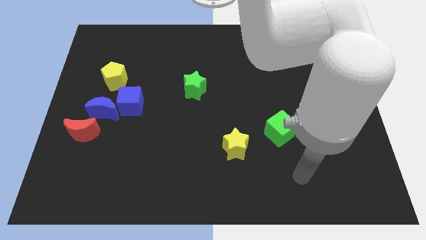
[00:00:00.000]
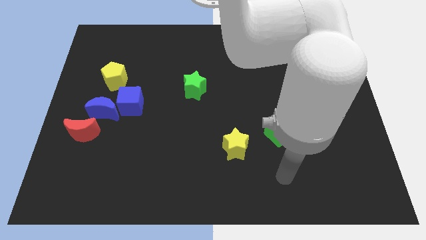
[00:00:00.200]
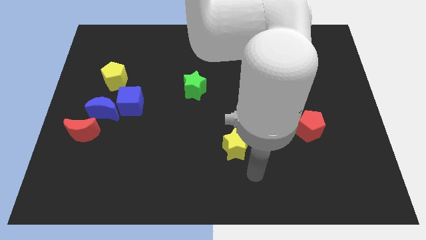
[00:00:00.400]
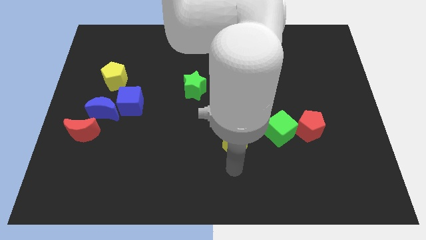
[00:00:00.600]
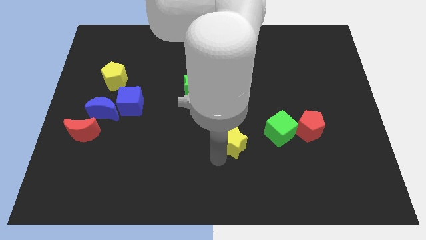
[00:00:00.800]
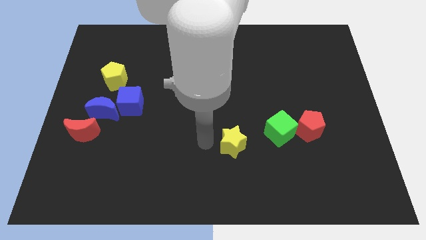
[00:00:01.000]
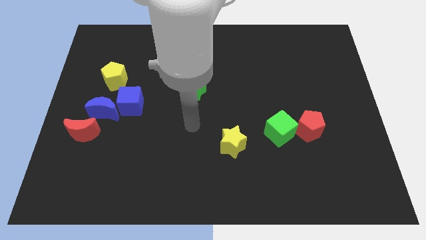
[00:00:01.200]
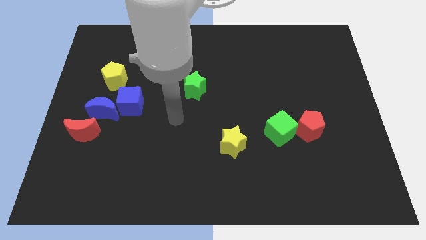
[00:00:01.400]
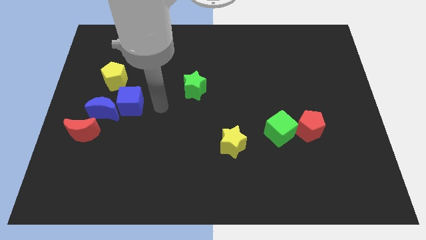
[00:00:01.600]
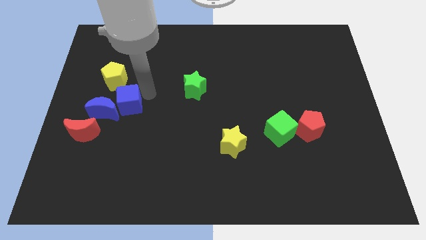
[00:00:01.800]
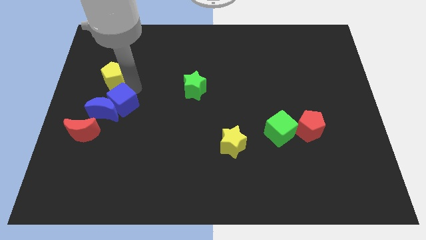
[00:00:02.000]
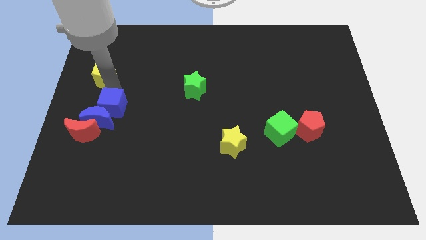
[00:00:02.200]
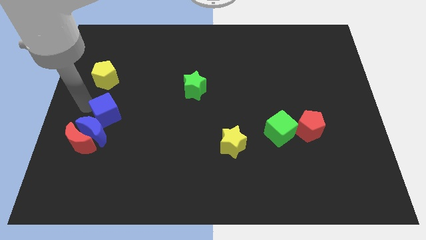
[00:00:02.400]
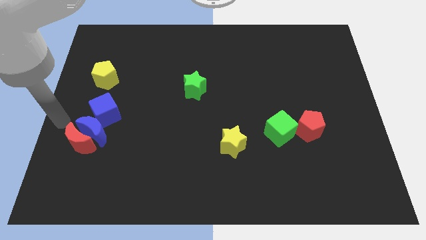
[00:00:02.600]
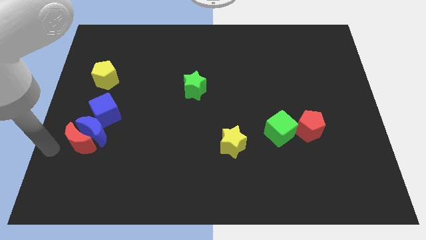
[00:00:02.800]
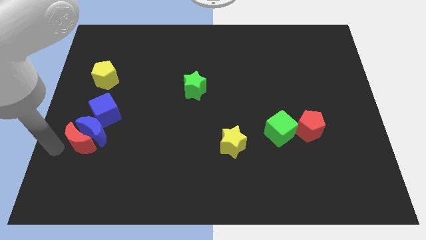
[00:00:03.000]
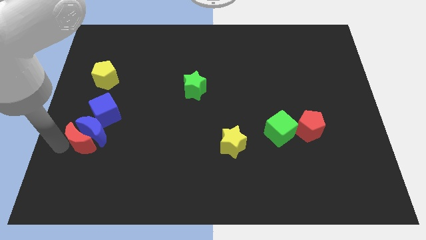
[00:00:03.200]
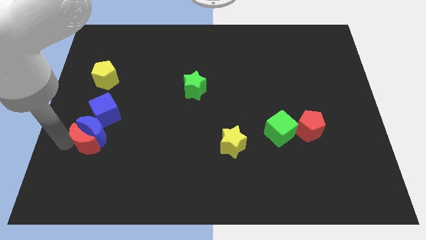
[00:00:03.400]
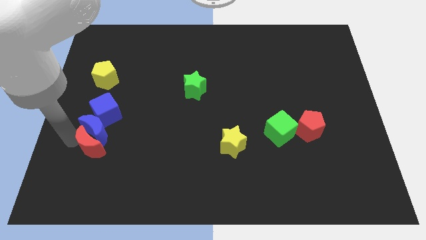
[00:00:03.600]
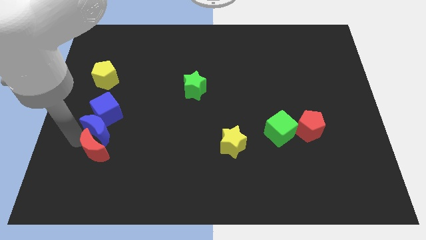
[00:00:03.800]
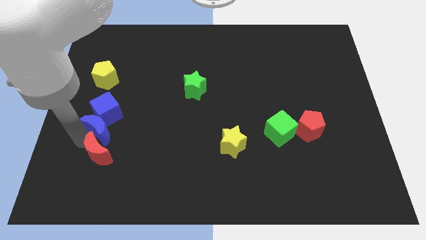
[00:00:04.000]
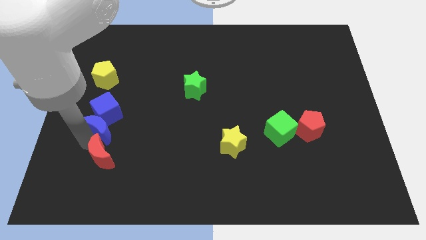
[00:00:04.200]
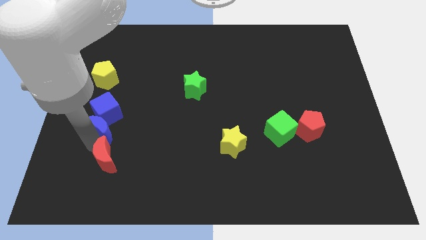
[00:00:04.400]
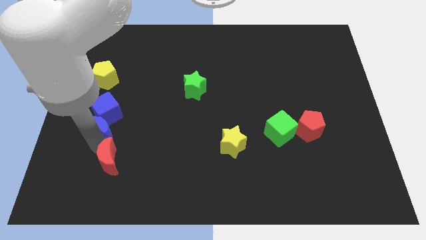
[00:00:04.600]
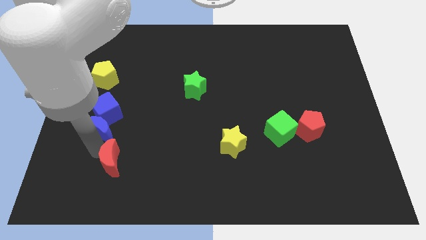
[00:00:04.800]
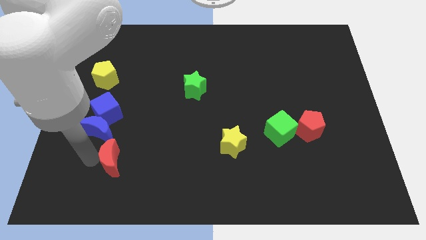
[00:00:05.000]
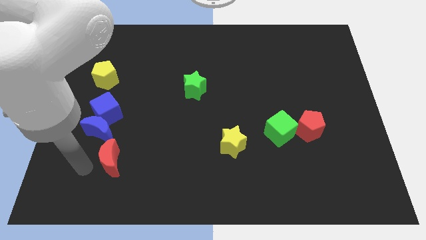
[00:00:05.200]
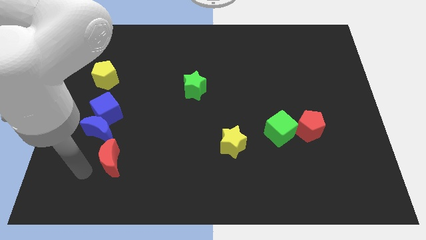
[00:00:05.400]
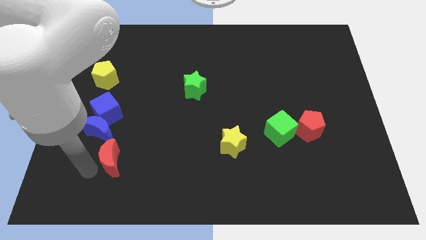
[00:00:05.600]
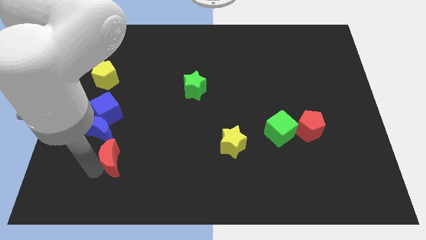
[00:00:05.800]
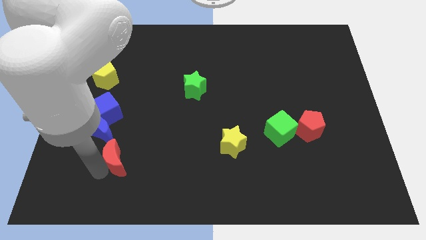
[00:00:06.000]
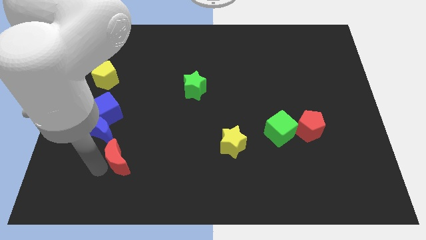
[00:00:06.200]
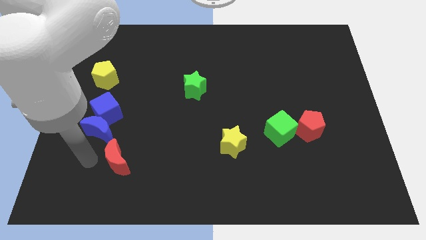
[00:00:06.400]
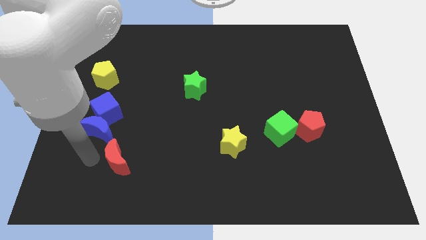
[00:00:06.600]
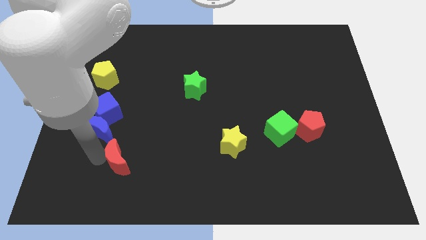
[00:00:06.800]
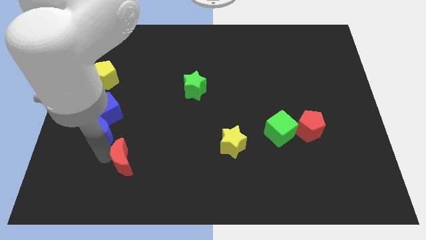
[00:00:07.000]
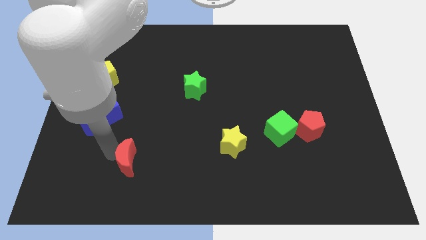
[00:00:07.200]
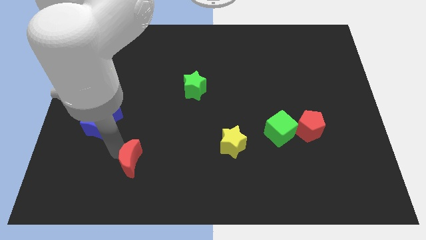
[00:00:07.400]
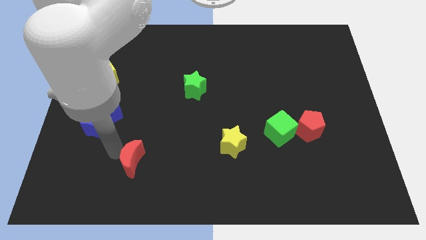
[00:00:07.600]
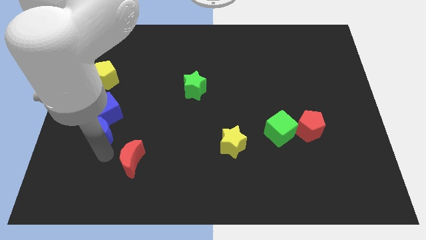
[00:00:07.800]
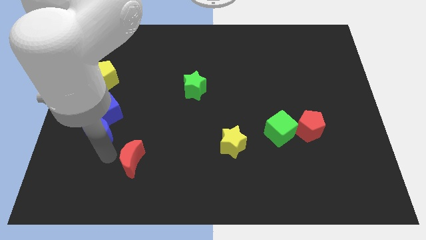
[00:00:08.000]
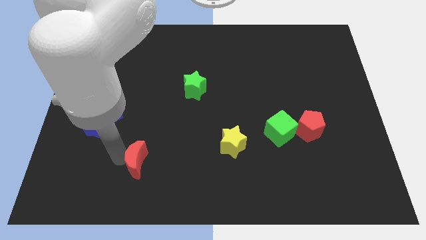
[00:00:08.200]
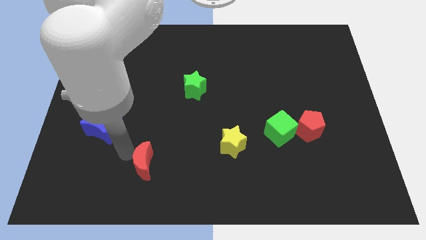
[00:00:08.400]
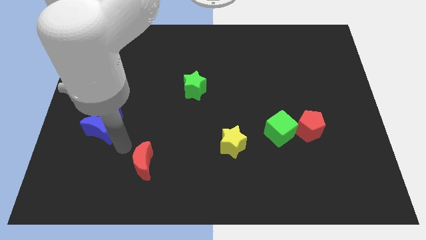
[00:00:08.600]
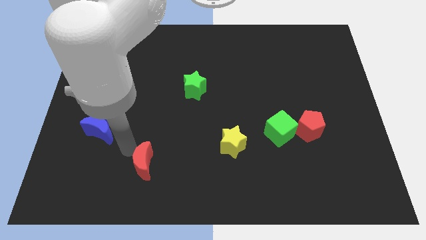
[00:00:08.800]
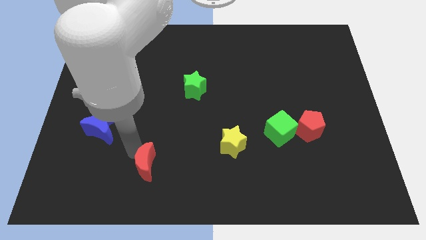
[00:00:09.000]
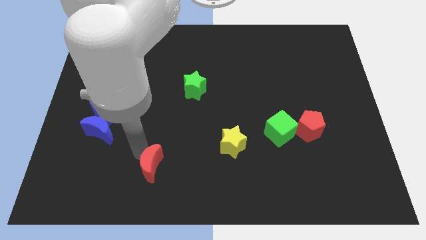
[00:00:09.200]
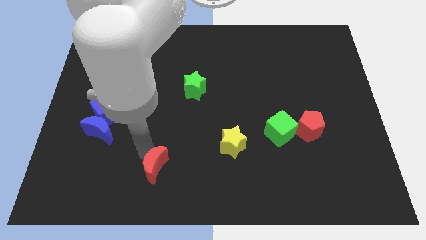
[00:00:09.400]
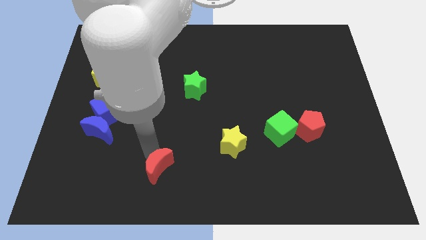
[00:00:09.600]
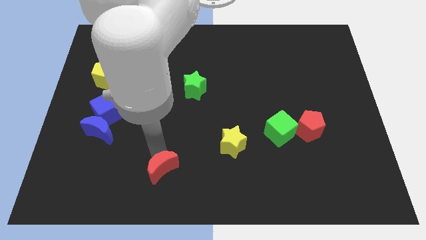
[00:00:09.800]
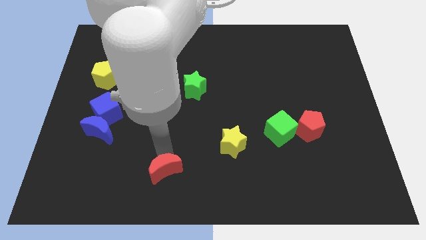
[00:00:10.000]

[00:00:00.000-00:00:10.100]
put the red moon to the bottom side
